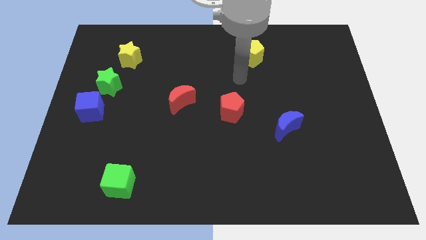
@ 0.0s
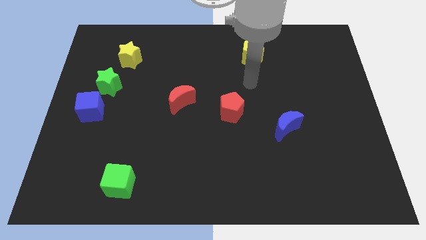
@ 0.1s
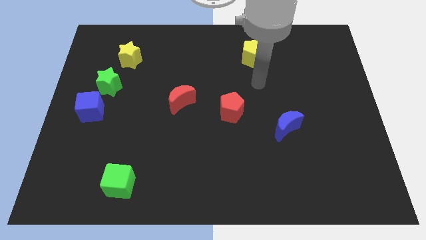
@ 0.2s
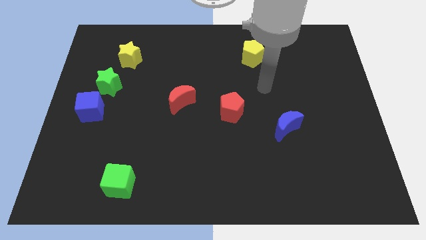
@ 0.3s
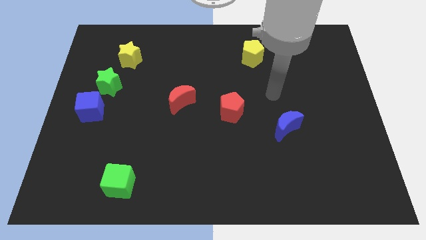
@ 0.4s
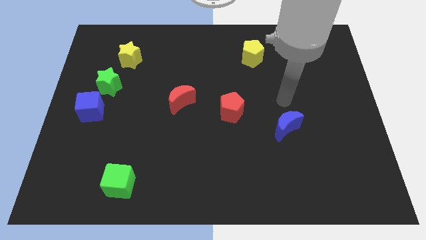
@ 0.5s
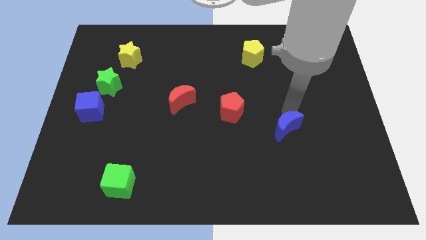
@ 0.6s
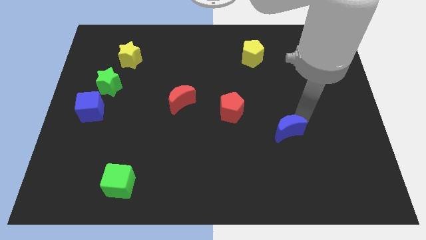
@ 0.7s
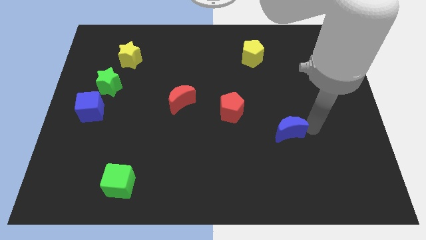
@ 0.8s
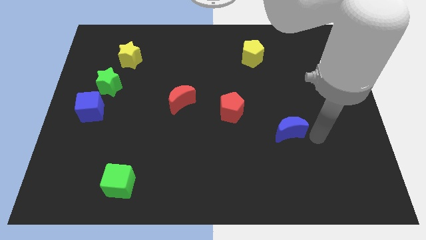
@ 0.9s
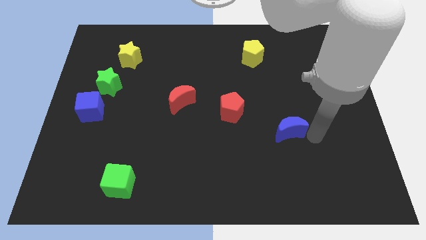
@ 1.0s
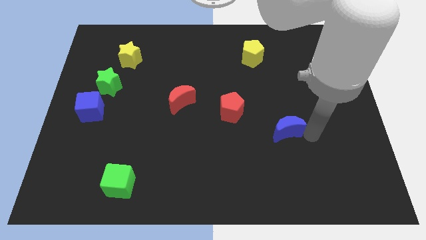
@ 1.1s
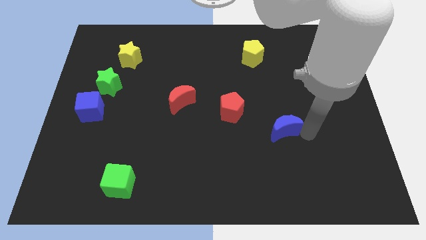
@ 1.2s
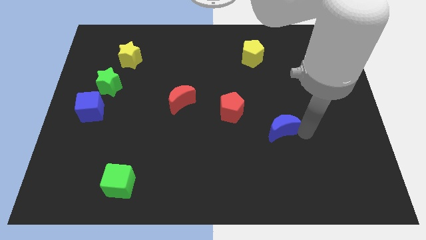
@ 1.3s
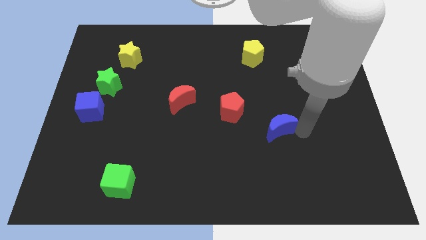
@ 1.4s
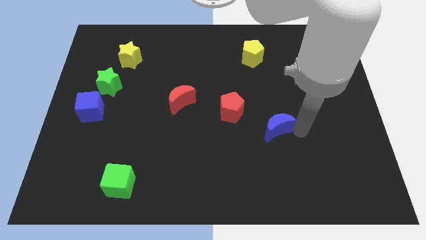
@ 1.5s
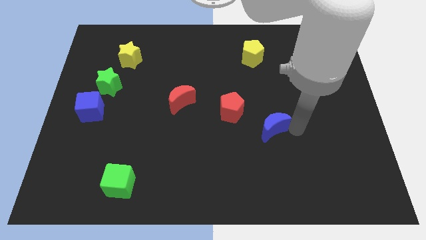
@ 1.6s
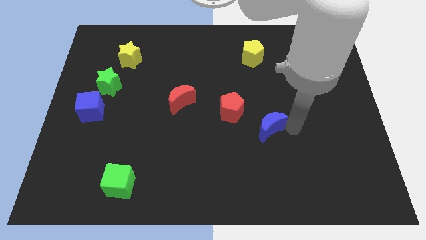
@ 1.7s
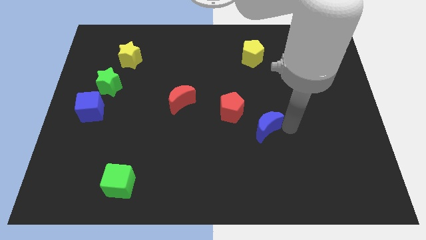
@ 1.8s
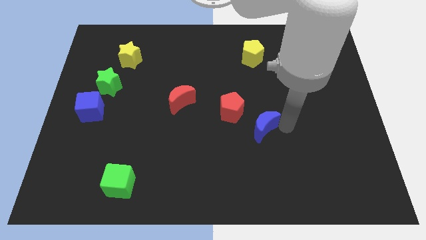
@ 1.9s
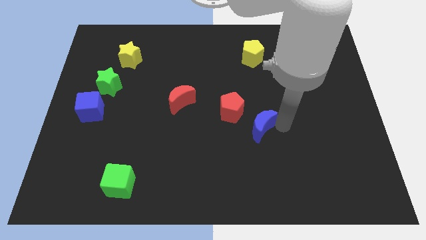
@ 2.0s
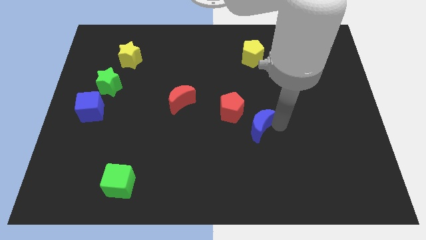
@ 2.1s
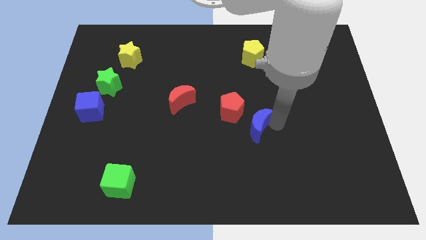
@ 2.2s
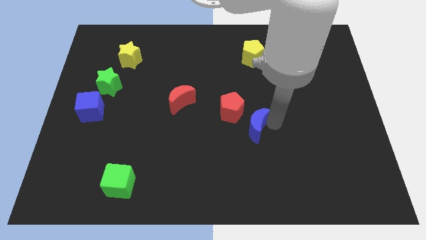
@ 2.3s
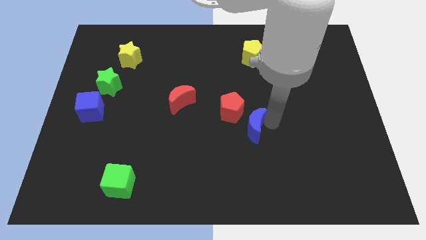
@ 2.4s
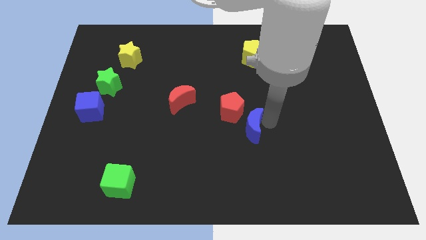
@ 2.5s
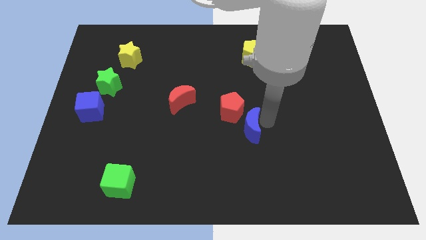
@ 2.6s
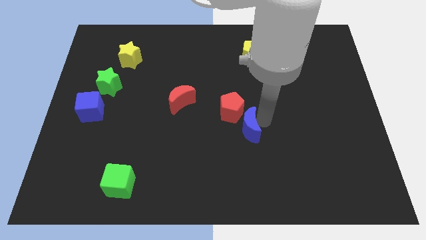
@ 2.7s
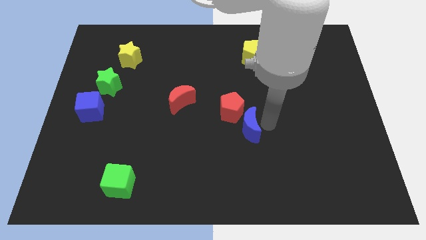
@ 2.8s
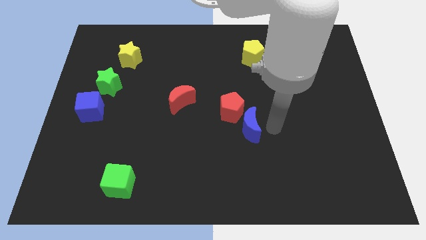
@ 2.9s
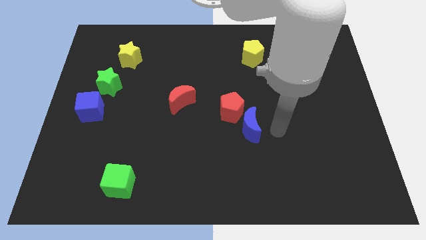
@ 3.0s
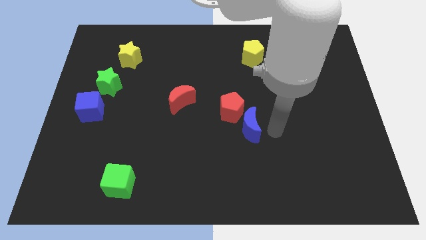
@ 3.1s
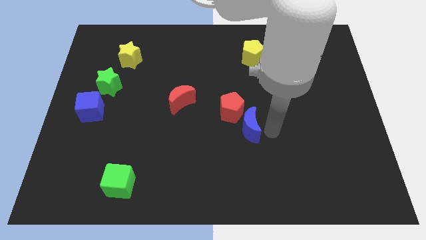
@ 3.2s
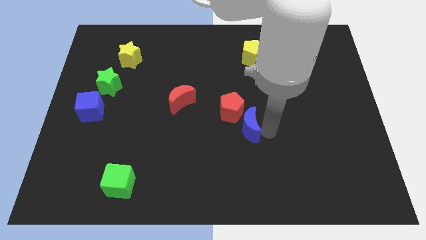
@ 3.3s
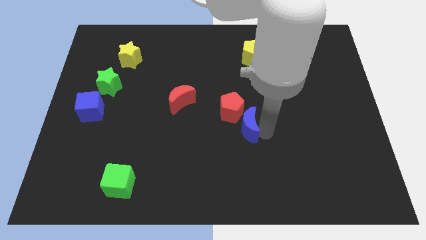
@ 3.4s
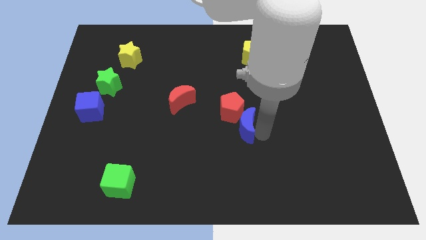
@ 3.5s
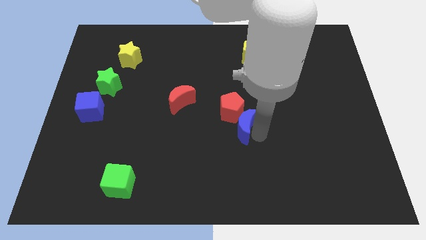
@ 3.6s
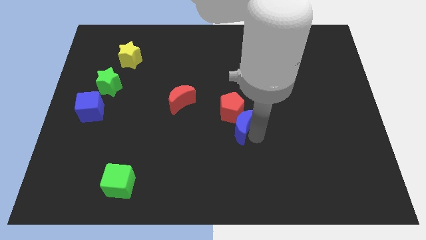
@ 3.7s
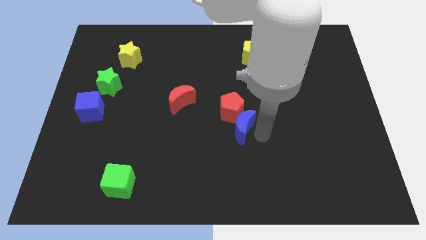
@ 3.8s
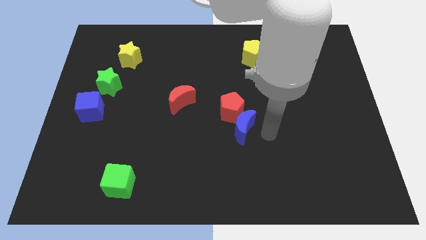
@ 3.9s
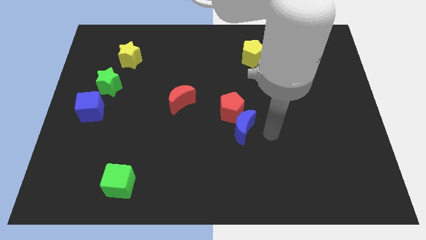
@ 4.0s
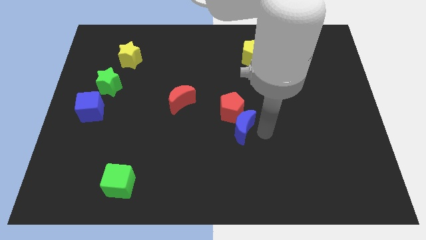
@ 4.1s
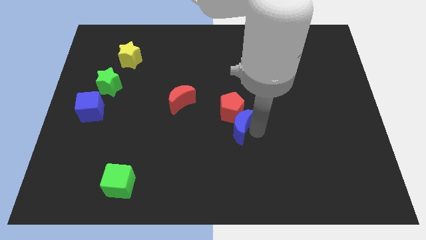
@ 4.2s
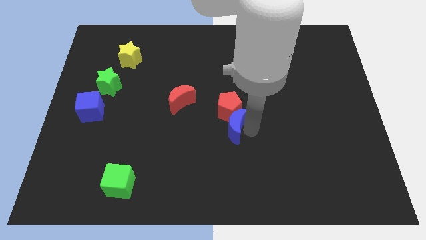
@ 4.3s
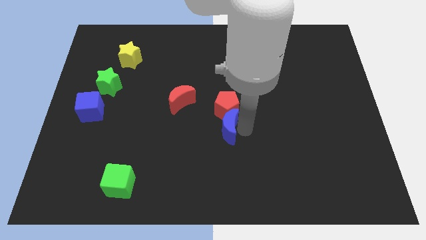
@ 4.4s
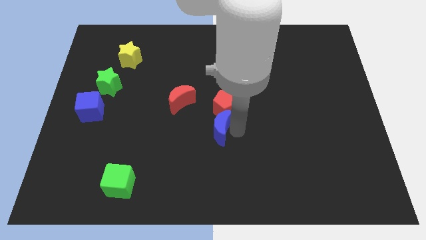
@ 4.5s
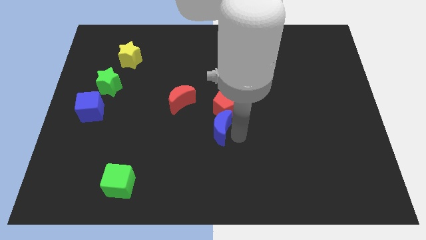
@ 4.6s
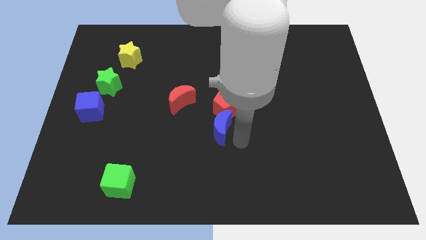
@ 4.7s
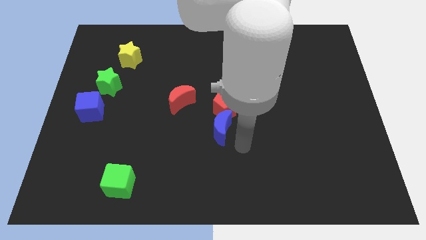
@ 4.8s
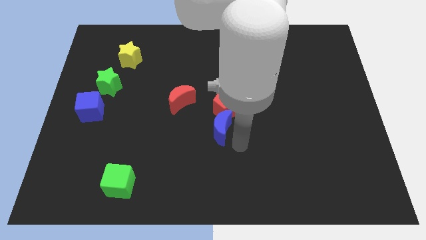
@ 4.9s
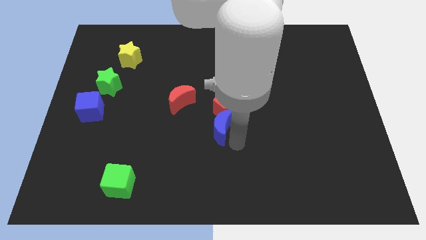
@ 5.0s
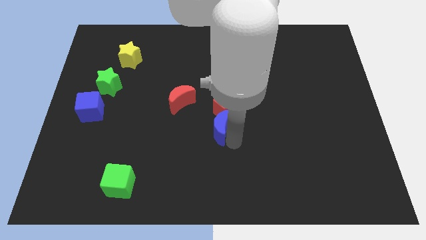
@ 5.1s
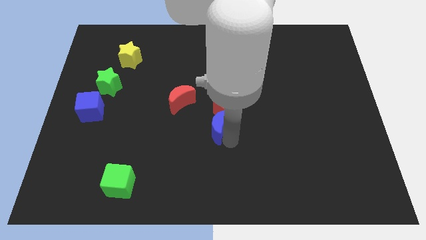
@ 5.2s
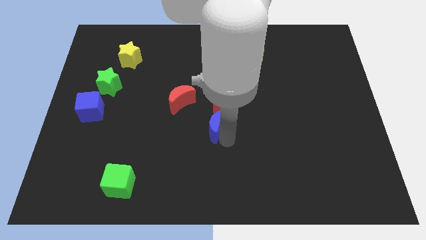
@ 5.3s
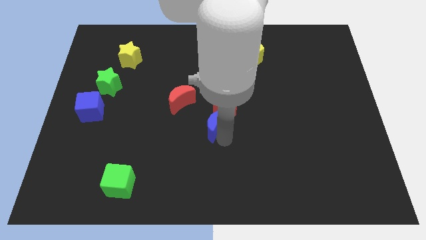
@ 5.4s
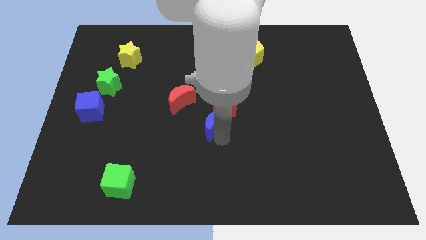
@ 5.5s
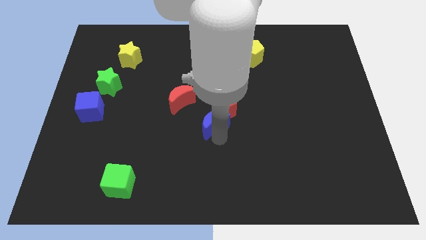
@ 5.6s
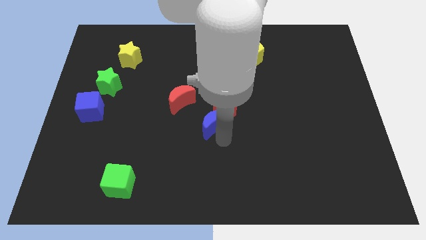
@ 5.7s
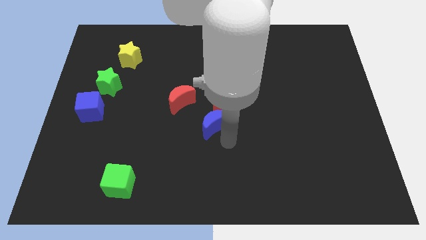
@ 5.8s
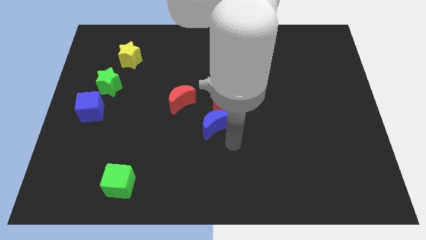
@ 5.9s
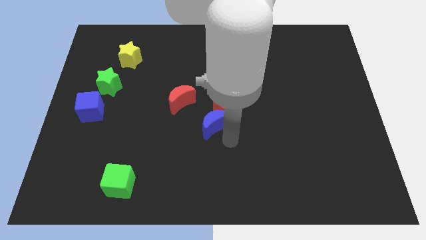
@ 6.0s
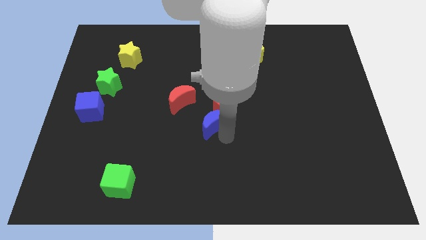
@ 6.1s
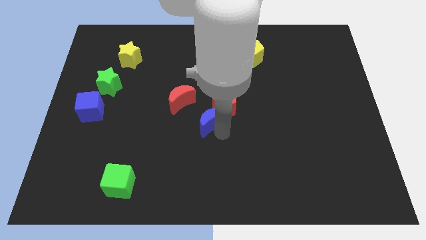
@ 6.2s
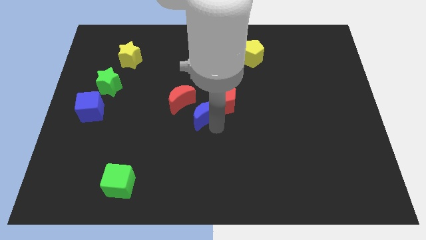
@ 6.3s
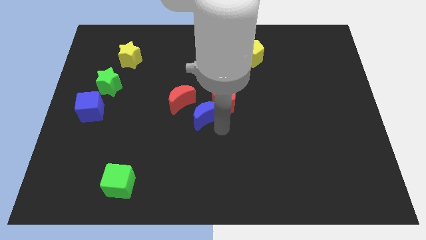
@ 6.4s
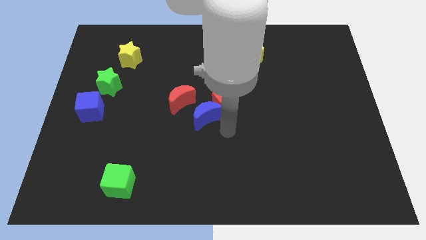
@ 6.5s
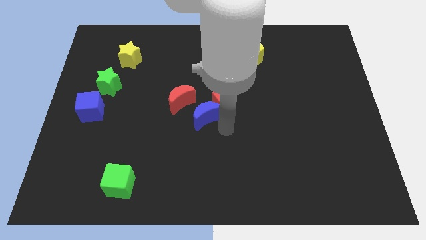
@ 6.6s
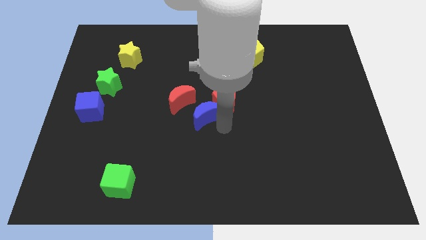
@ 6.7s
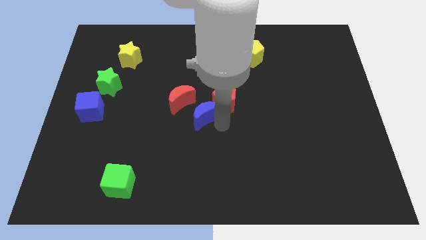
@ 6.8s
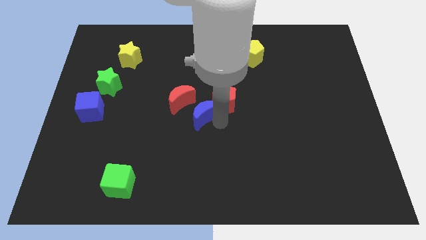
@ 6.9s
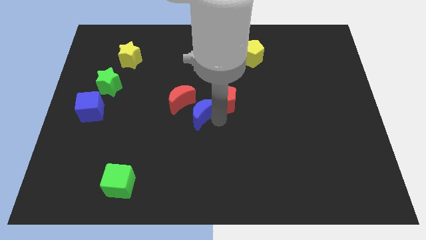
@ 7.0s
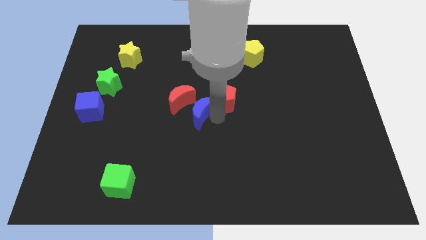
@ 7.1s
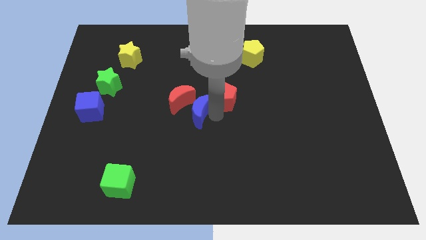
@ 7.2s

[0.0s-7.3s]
push the blue moon next to the red moon
